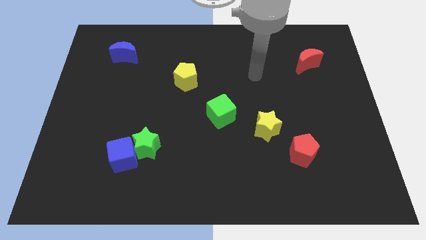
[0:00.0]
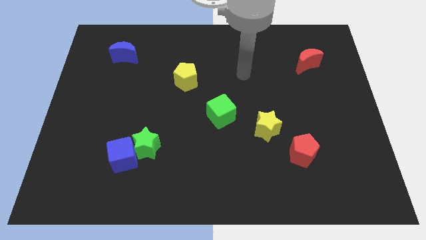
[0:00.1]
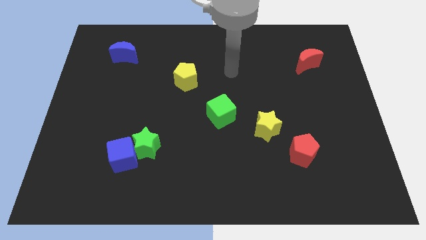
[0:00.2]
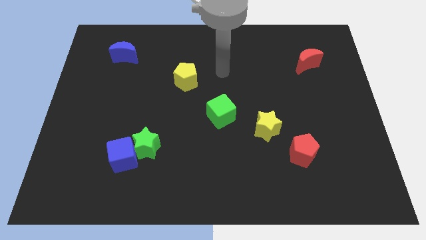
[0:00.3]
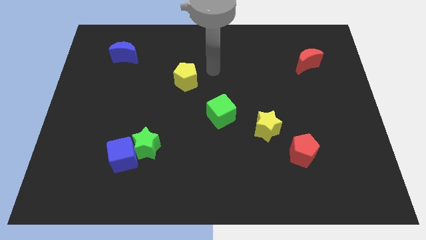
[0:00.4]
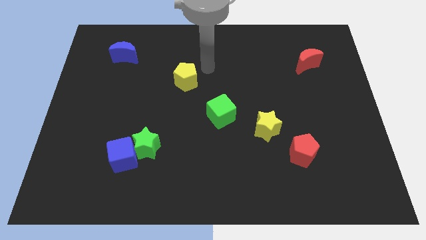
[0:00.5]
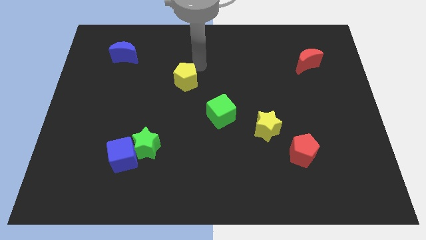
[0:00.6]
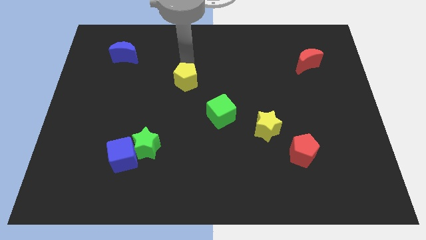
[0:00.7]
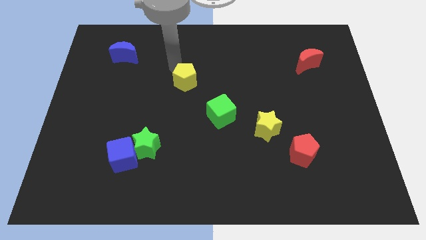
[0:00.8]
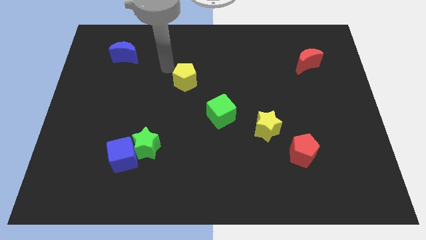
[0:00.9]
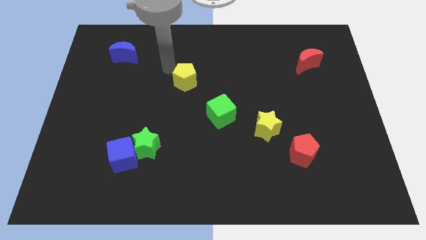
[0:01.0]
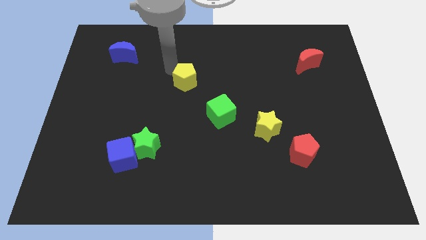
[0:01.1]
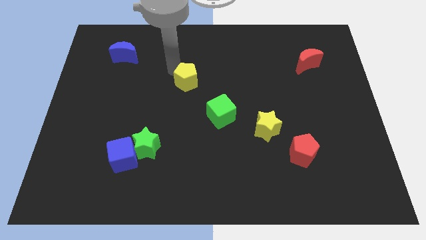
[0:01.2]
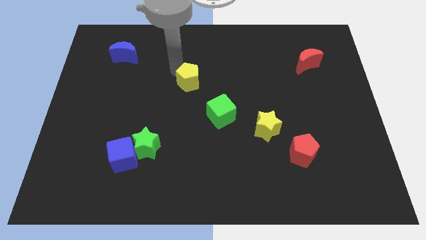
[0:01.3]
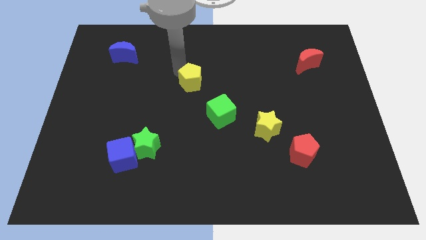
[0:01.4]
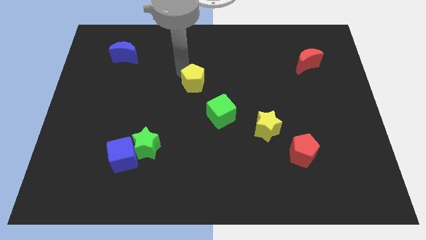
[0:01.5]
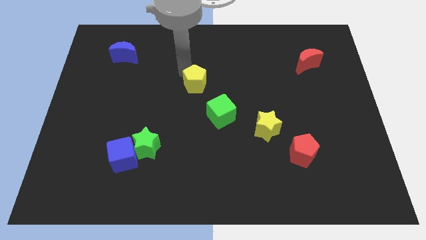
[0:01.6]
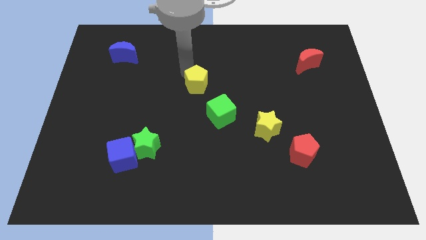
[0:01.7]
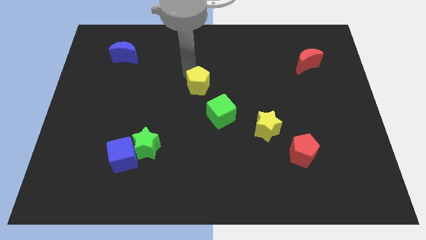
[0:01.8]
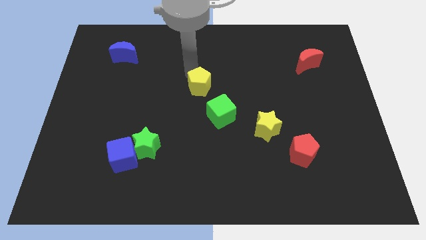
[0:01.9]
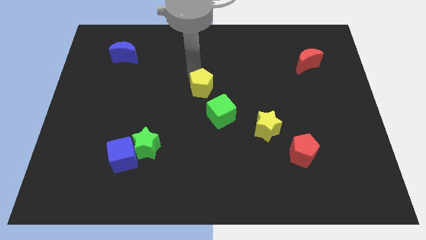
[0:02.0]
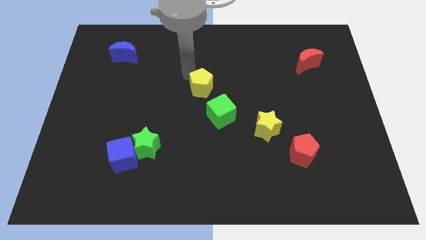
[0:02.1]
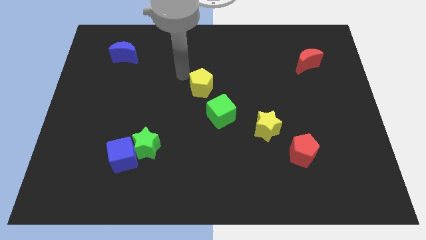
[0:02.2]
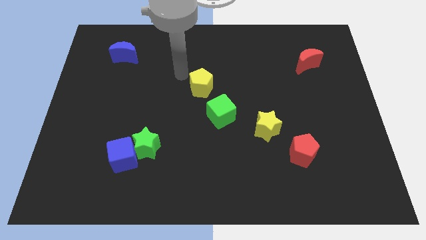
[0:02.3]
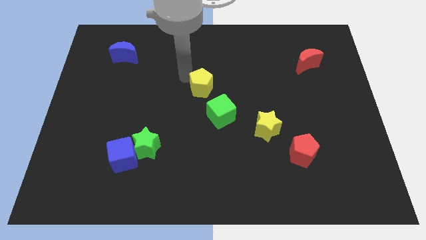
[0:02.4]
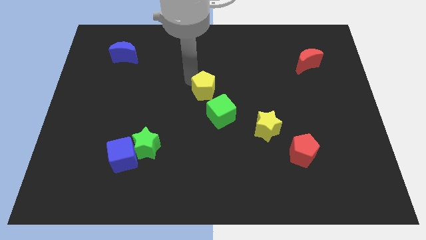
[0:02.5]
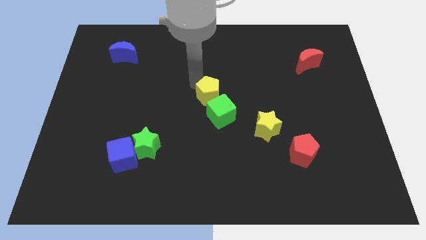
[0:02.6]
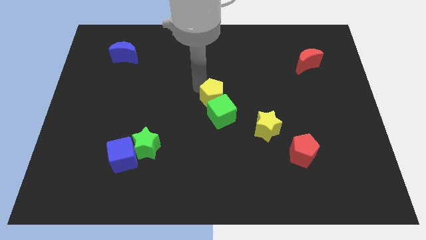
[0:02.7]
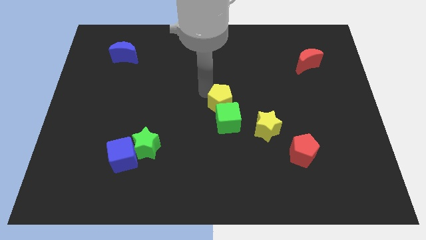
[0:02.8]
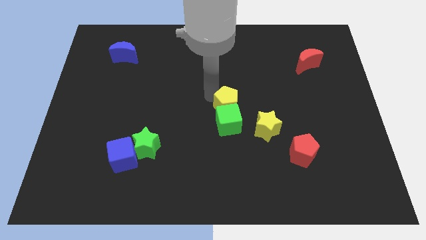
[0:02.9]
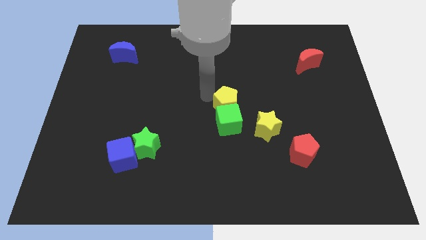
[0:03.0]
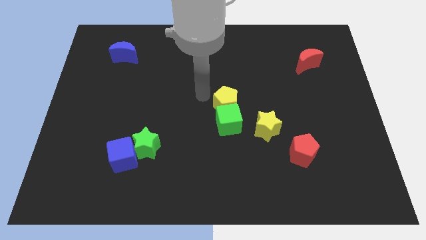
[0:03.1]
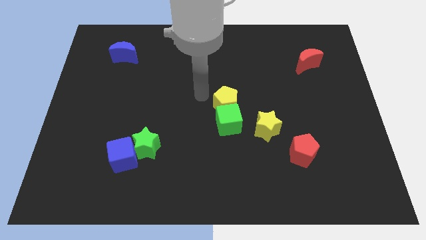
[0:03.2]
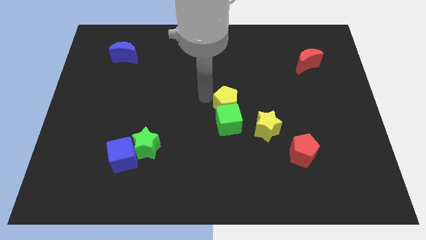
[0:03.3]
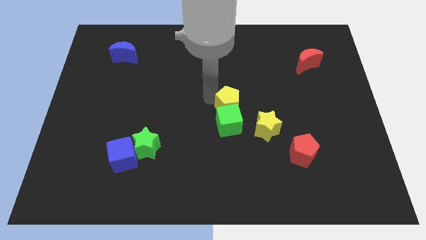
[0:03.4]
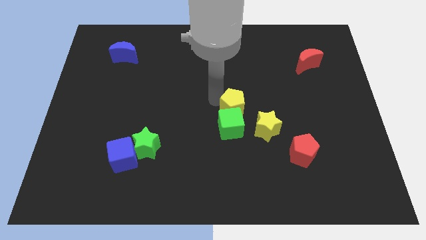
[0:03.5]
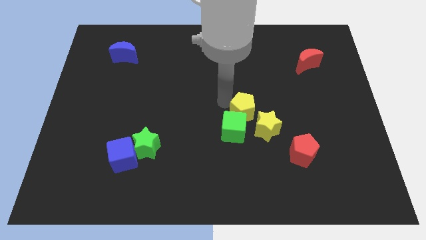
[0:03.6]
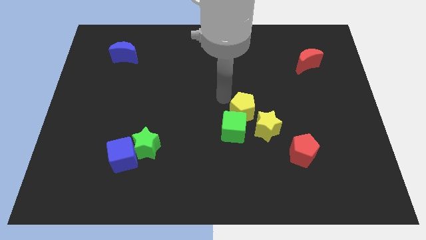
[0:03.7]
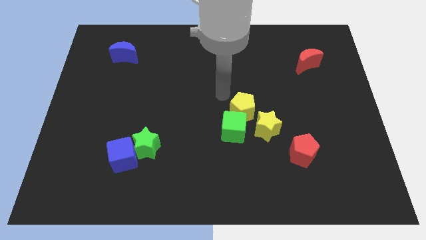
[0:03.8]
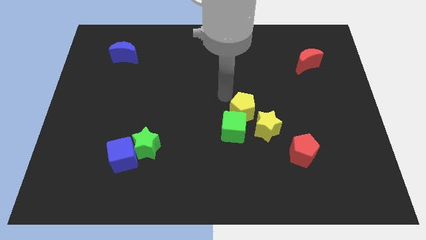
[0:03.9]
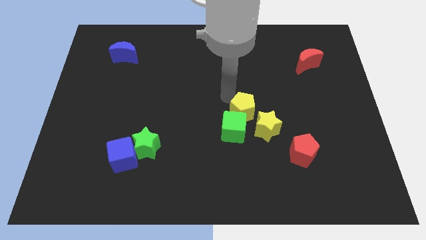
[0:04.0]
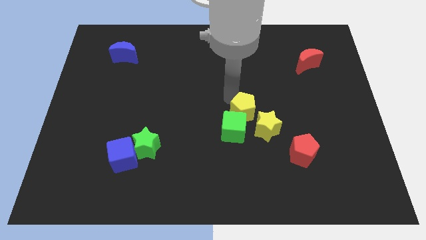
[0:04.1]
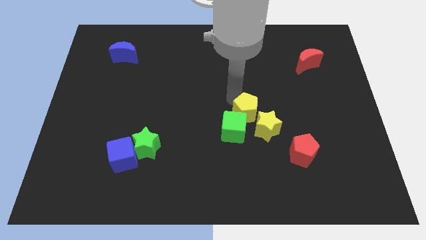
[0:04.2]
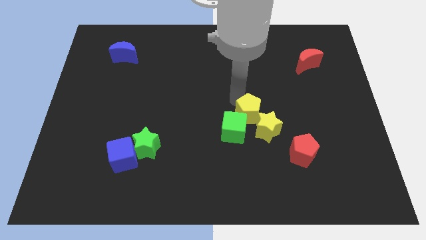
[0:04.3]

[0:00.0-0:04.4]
slide the yellow pentagon close to the yellow star

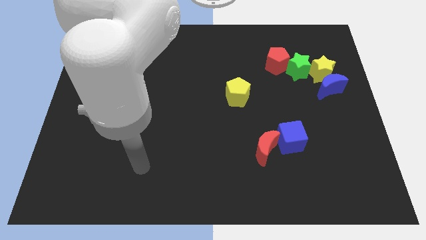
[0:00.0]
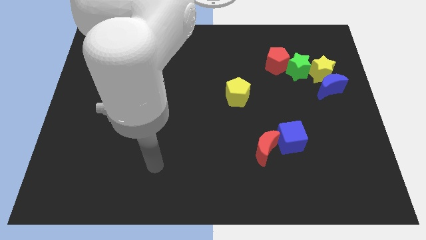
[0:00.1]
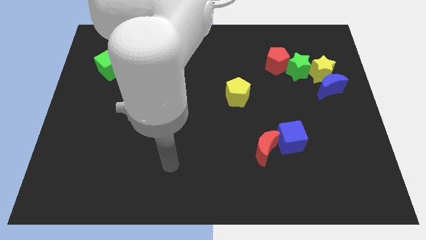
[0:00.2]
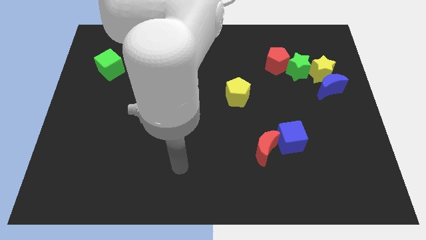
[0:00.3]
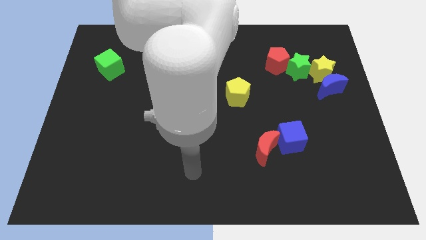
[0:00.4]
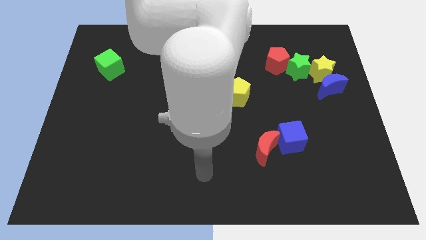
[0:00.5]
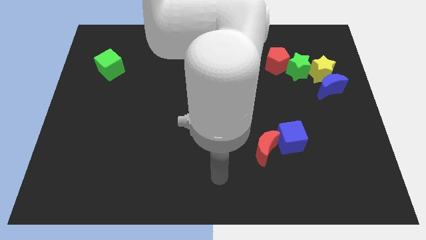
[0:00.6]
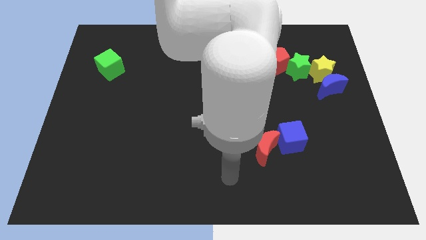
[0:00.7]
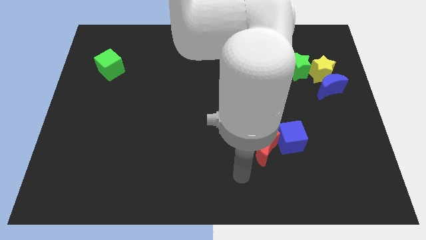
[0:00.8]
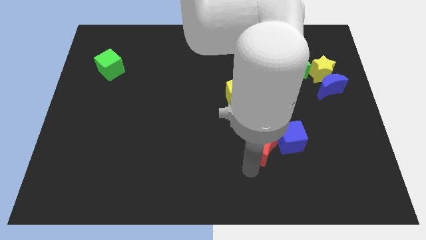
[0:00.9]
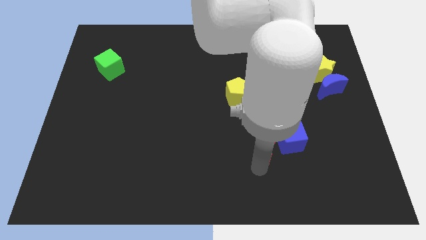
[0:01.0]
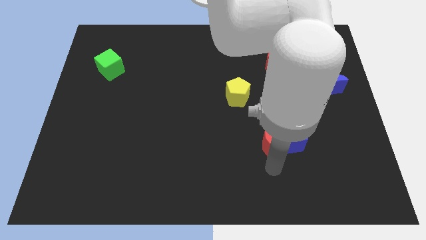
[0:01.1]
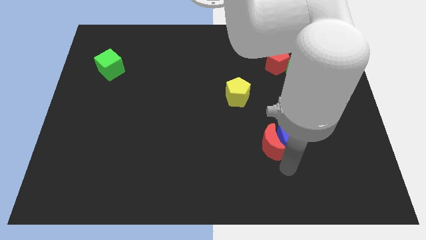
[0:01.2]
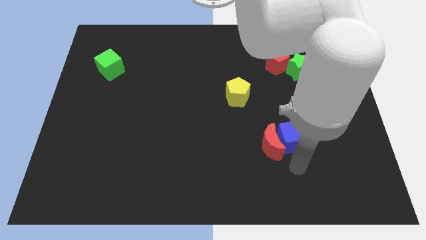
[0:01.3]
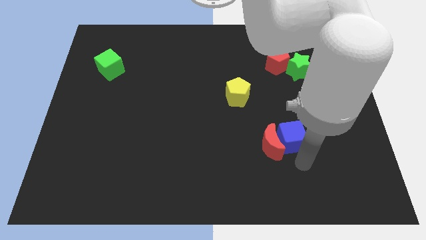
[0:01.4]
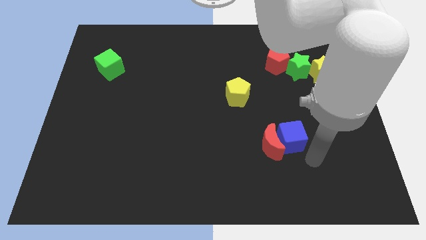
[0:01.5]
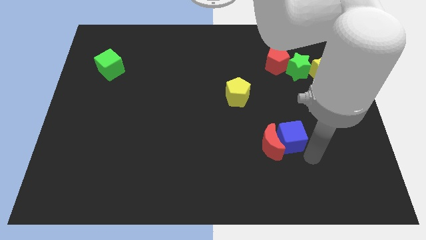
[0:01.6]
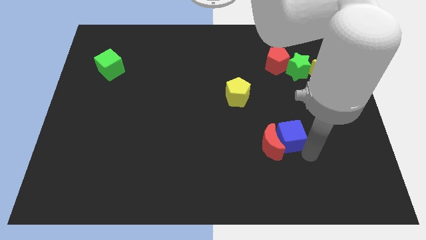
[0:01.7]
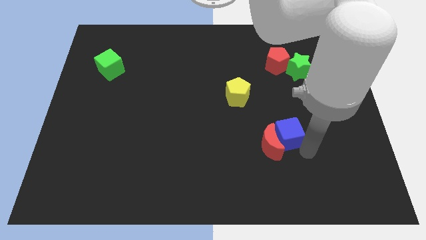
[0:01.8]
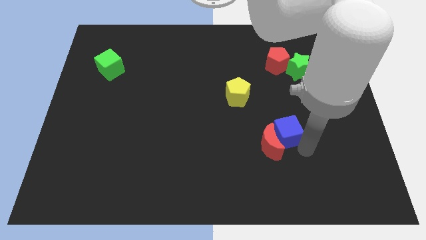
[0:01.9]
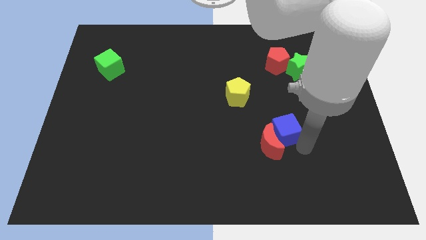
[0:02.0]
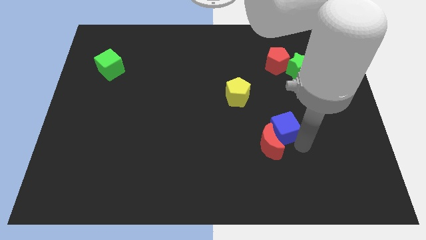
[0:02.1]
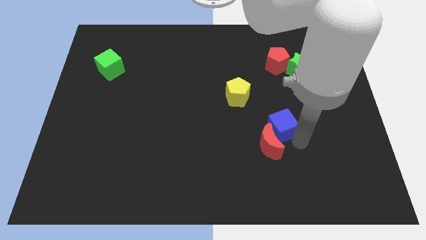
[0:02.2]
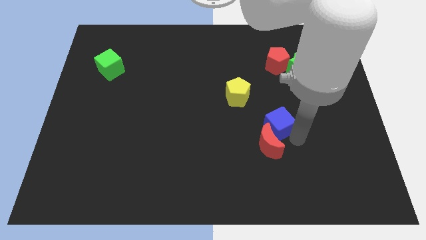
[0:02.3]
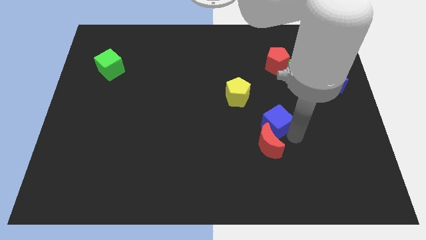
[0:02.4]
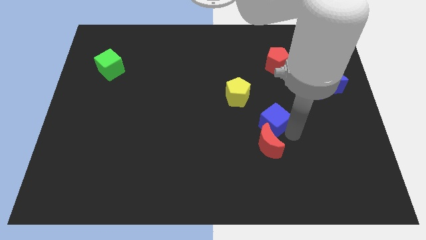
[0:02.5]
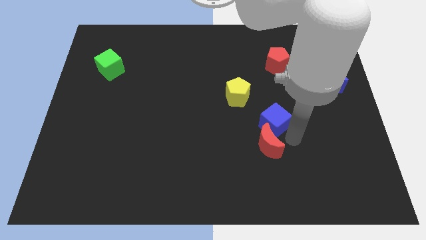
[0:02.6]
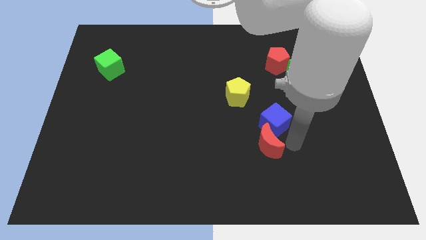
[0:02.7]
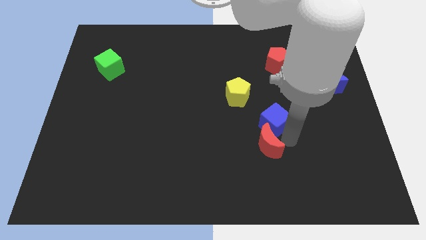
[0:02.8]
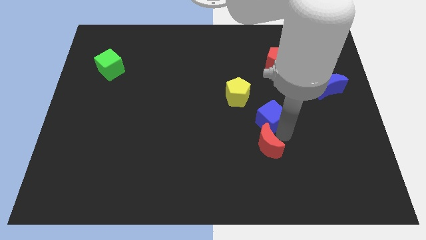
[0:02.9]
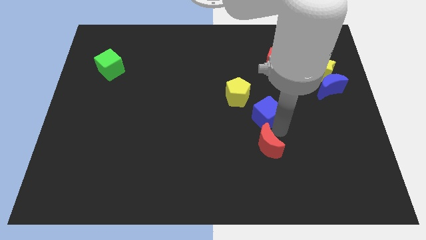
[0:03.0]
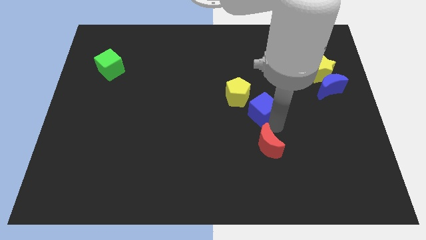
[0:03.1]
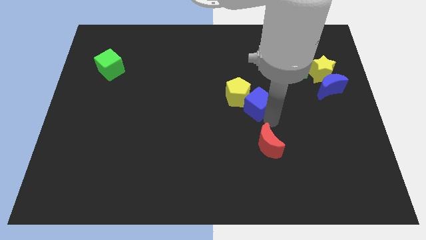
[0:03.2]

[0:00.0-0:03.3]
put the blue cube towards the yellow pentagon

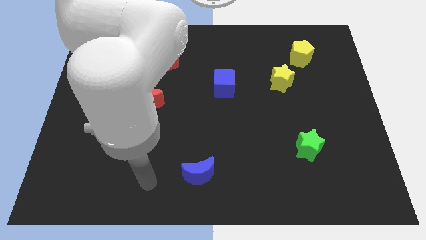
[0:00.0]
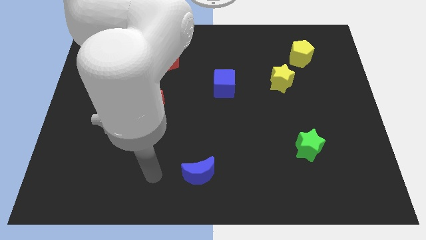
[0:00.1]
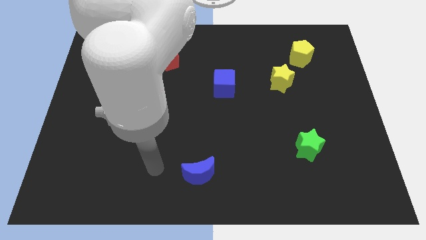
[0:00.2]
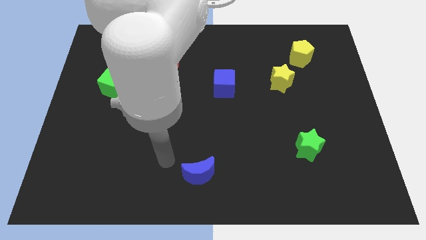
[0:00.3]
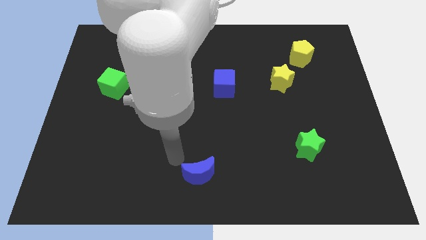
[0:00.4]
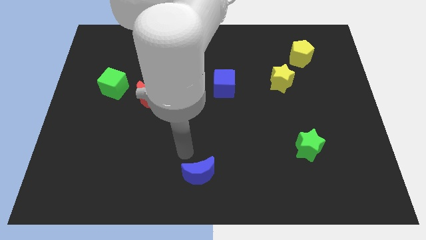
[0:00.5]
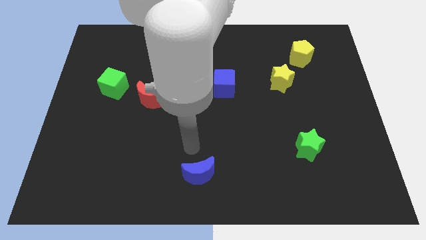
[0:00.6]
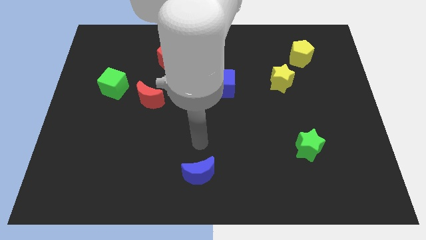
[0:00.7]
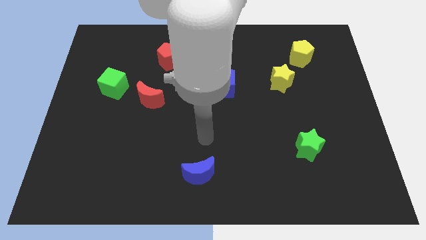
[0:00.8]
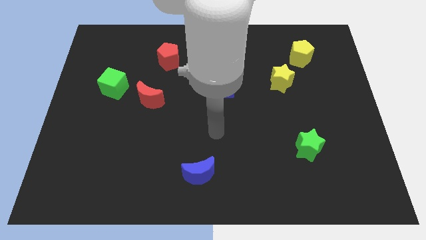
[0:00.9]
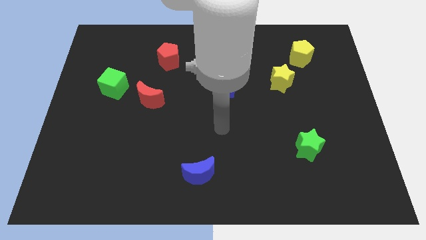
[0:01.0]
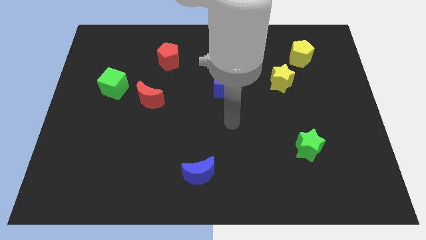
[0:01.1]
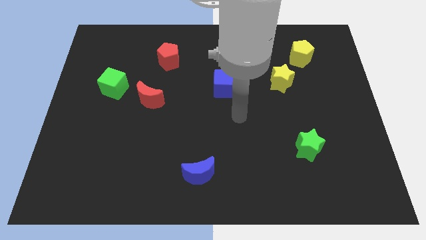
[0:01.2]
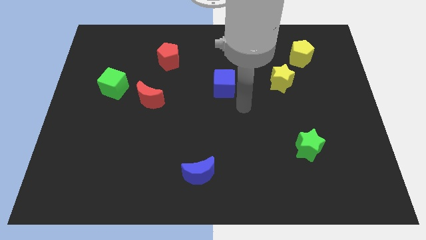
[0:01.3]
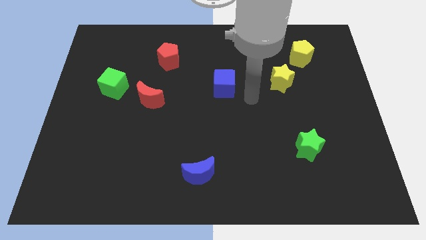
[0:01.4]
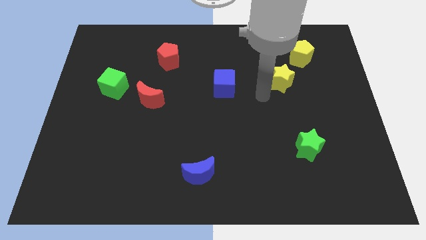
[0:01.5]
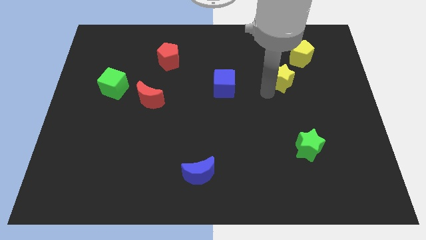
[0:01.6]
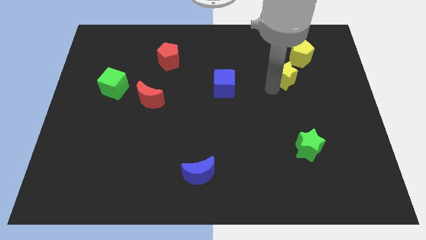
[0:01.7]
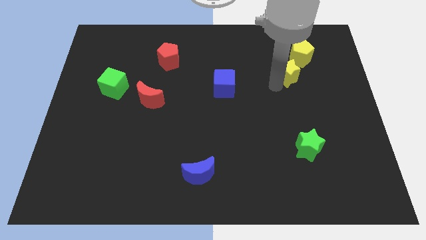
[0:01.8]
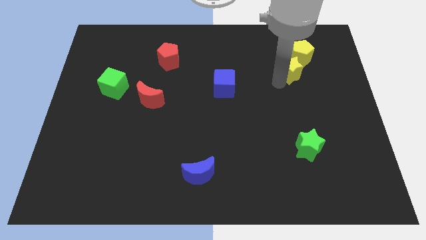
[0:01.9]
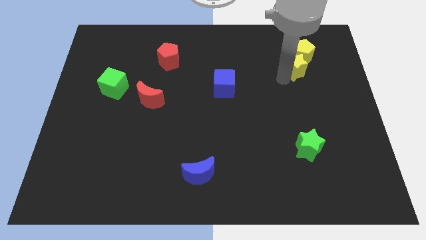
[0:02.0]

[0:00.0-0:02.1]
slide the yellow star towards the yellow pentagon
